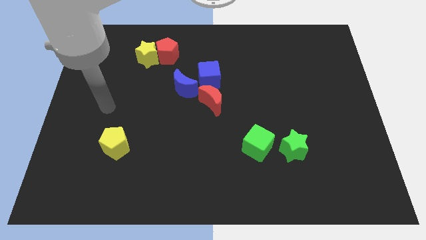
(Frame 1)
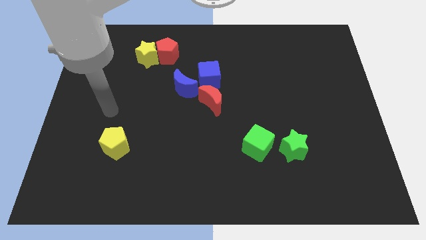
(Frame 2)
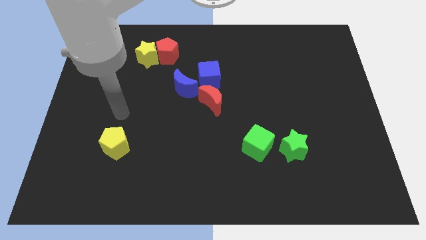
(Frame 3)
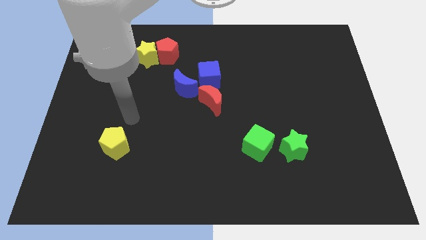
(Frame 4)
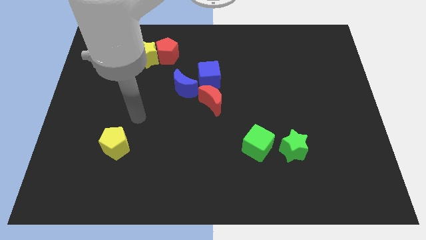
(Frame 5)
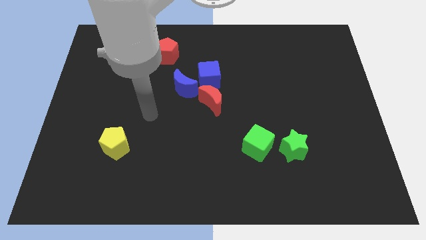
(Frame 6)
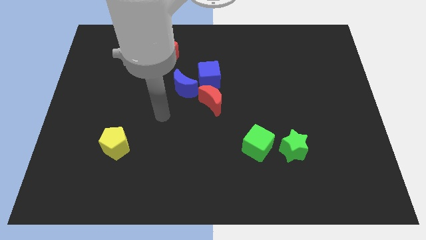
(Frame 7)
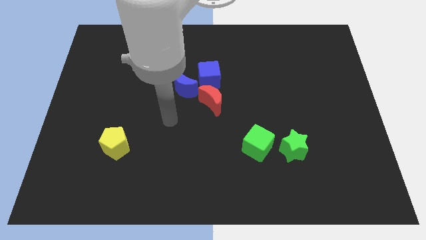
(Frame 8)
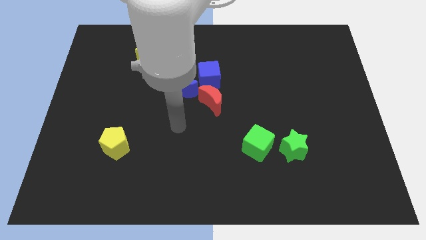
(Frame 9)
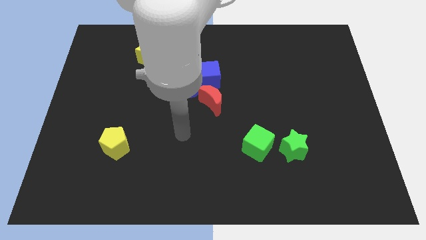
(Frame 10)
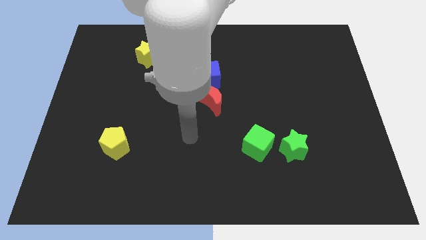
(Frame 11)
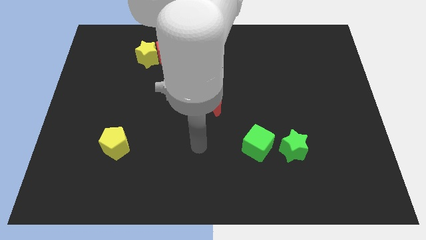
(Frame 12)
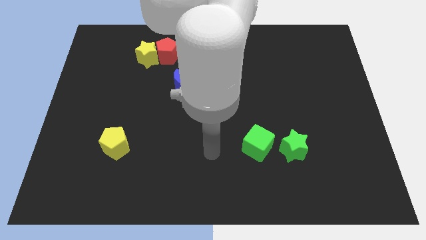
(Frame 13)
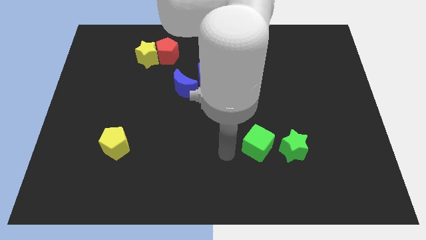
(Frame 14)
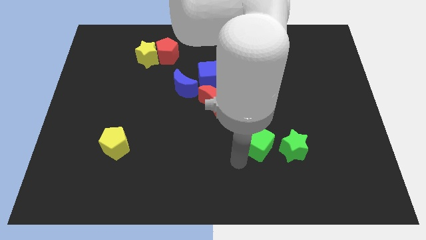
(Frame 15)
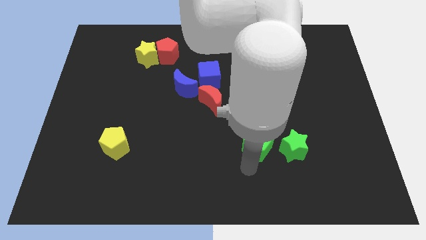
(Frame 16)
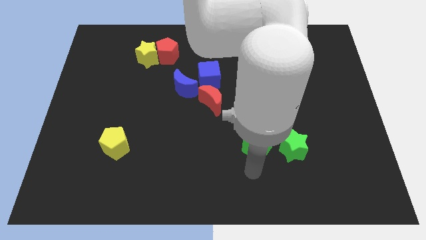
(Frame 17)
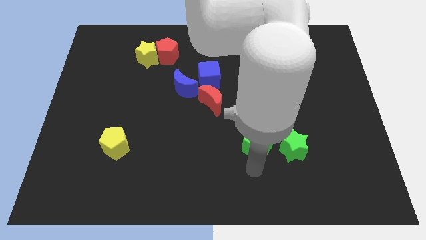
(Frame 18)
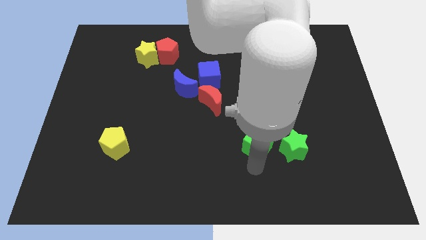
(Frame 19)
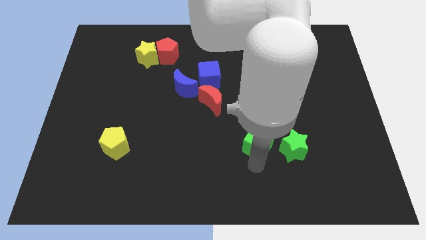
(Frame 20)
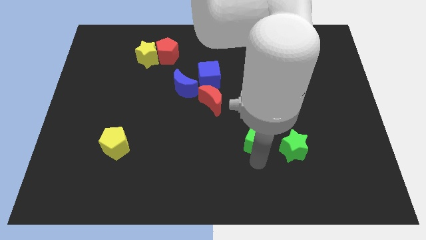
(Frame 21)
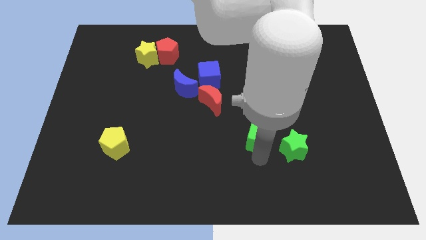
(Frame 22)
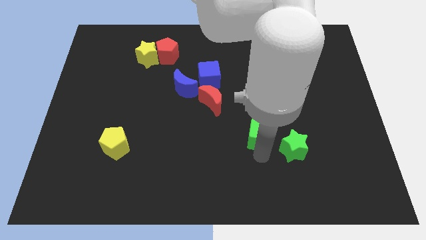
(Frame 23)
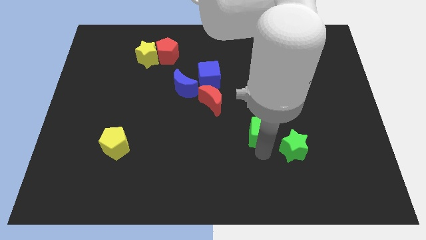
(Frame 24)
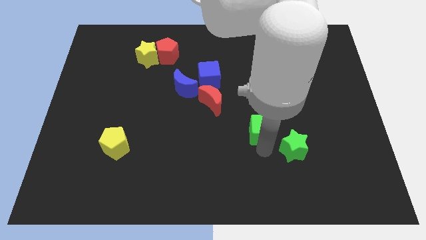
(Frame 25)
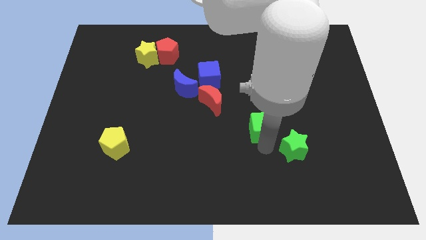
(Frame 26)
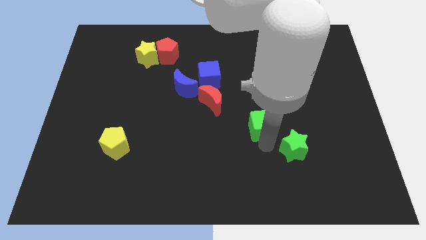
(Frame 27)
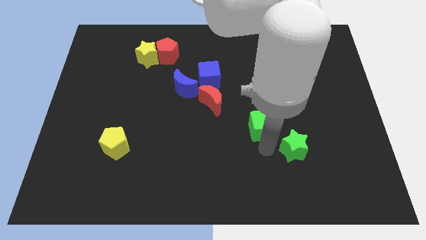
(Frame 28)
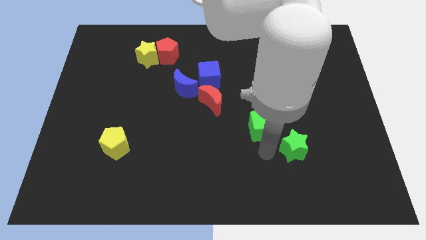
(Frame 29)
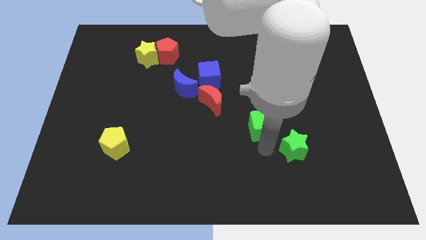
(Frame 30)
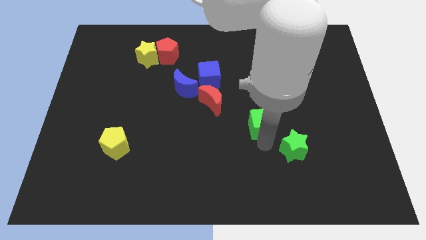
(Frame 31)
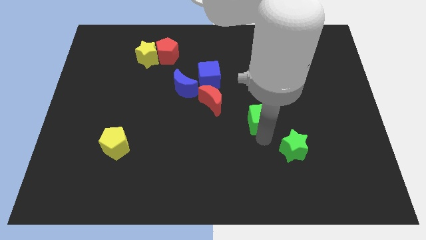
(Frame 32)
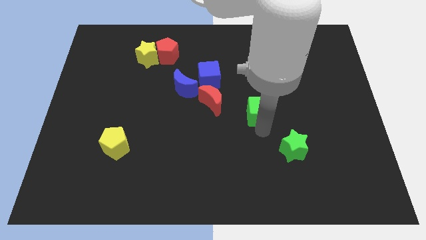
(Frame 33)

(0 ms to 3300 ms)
slide the green cube a bit upwards

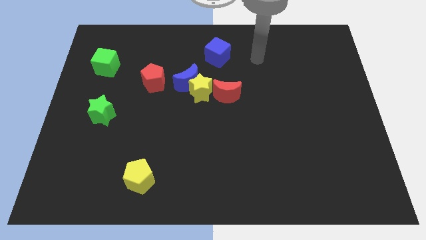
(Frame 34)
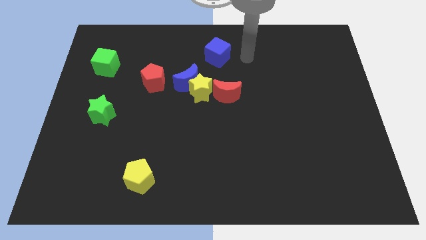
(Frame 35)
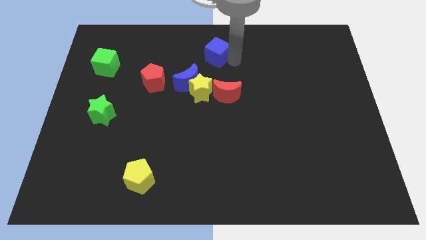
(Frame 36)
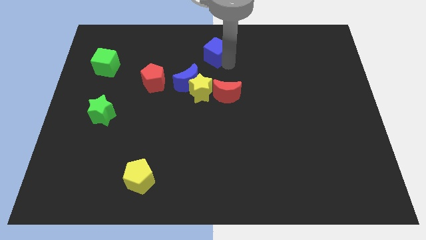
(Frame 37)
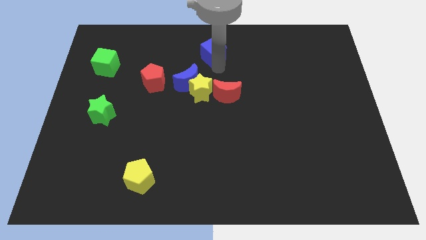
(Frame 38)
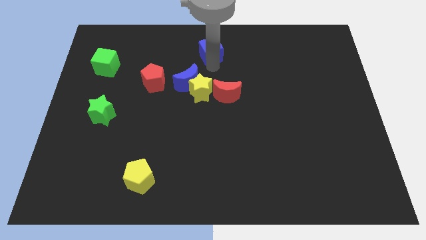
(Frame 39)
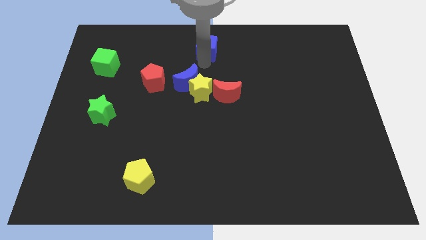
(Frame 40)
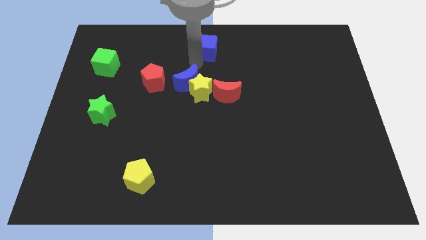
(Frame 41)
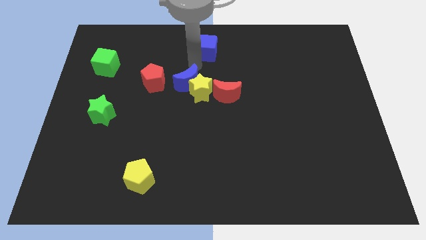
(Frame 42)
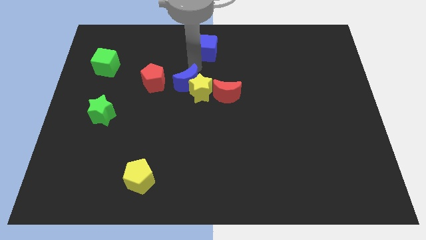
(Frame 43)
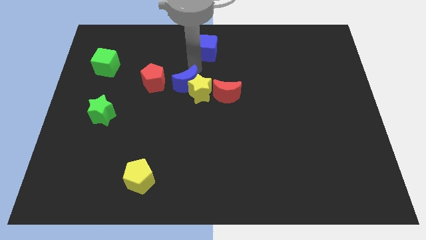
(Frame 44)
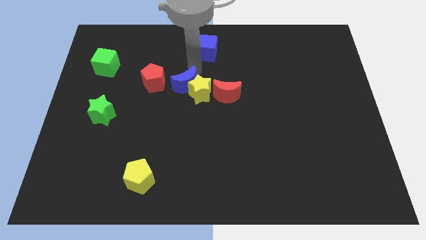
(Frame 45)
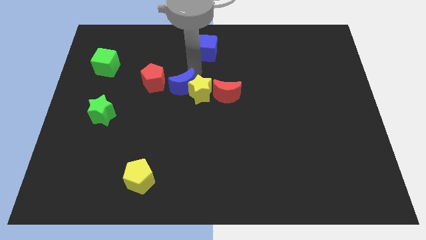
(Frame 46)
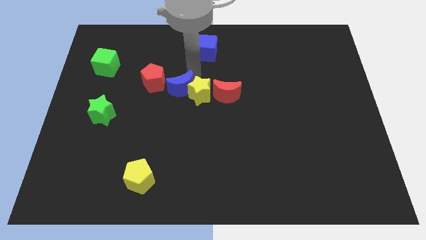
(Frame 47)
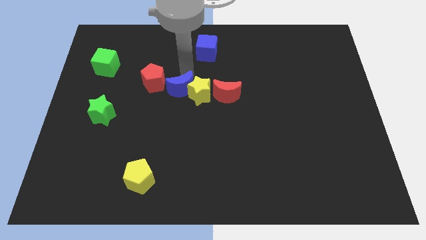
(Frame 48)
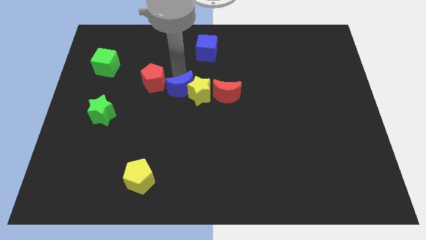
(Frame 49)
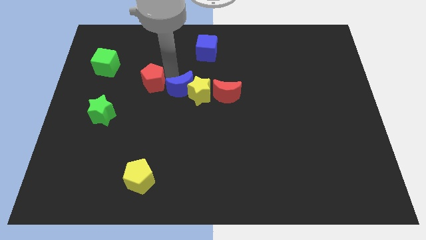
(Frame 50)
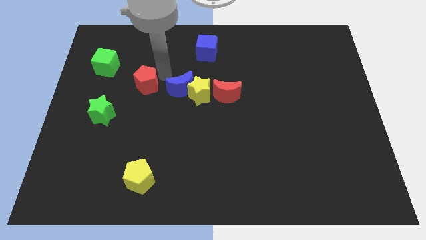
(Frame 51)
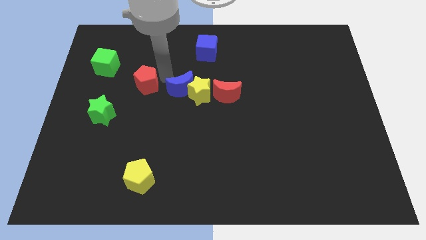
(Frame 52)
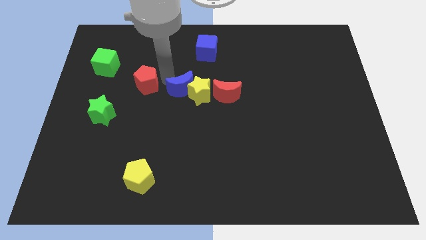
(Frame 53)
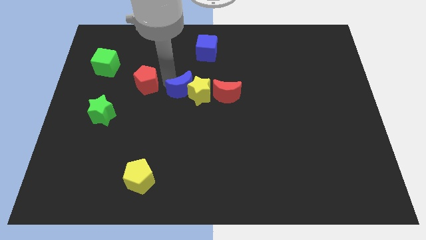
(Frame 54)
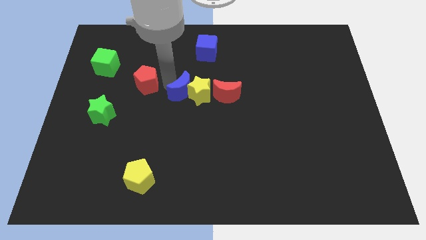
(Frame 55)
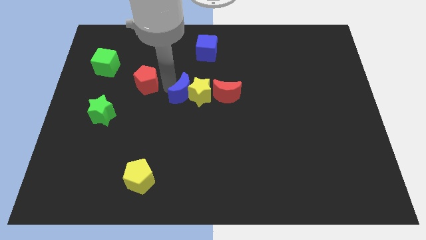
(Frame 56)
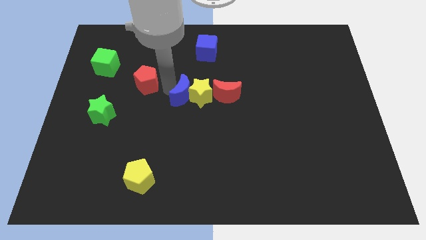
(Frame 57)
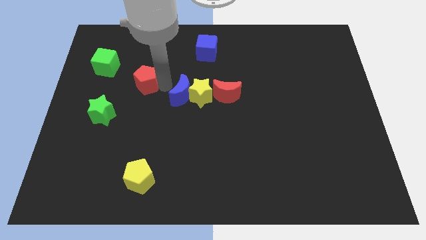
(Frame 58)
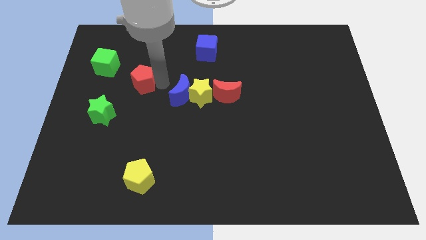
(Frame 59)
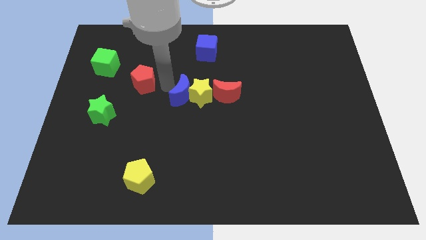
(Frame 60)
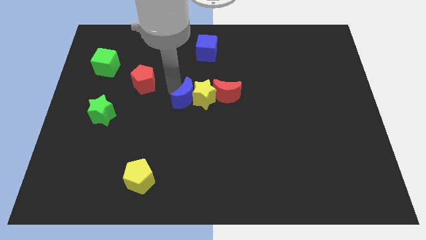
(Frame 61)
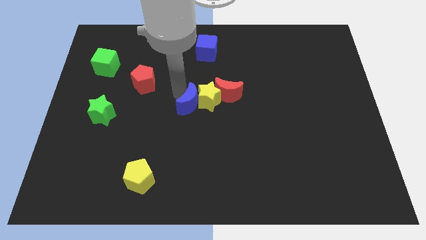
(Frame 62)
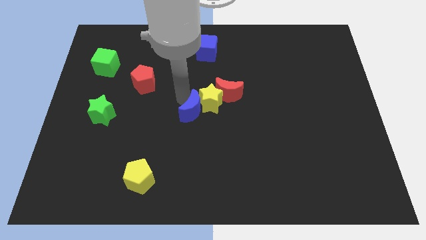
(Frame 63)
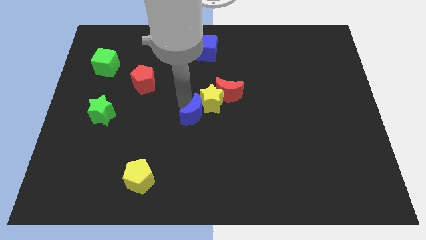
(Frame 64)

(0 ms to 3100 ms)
slightly move the blue moon downwards and to the right diagonally

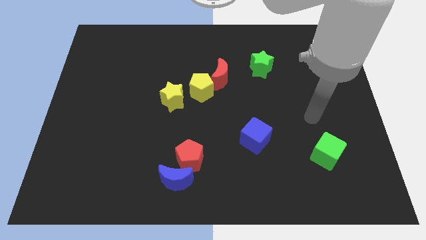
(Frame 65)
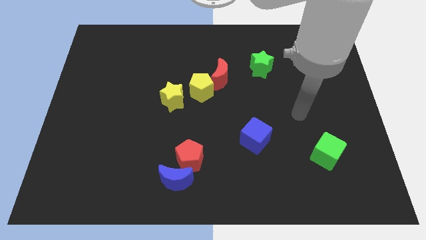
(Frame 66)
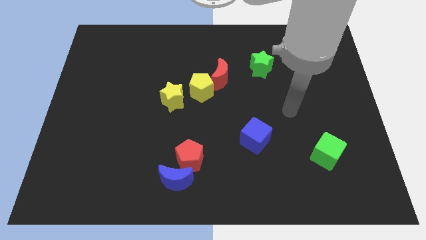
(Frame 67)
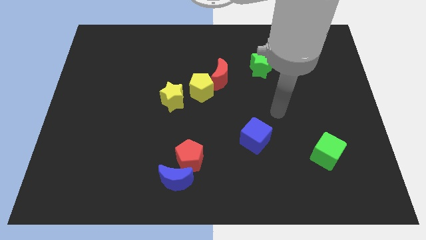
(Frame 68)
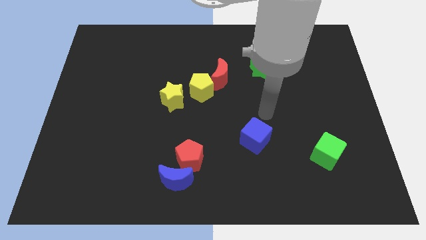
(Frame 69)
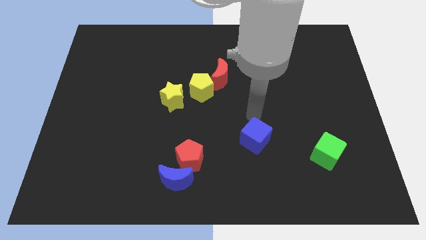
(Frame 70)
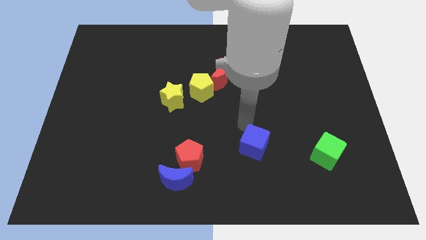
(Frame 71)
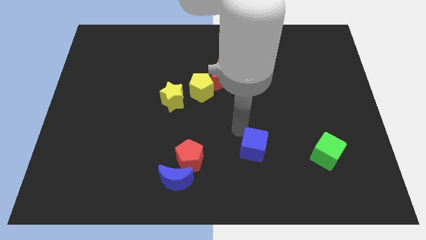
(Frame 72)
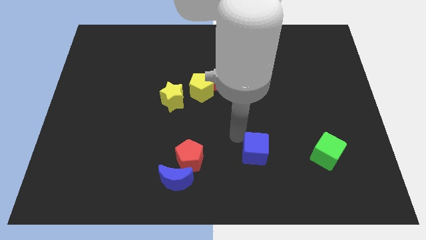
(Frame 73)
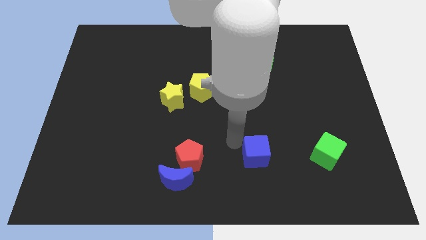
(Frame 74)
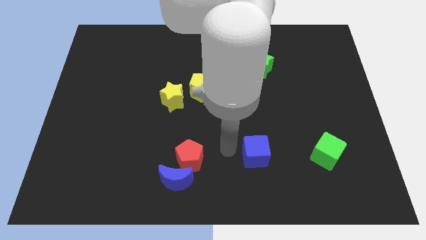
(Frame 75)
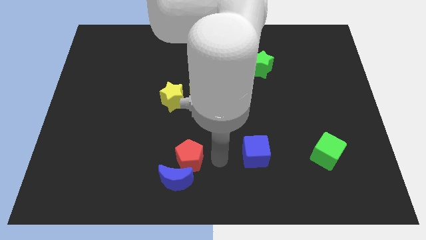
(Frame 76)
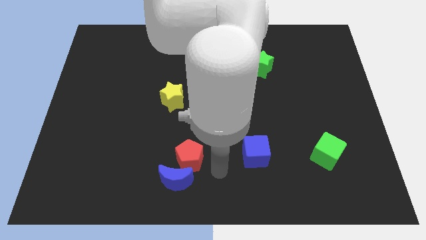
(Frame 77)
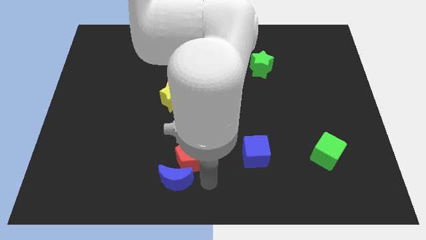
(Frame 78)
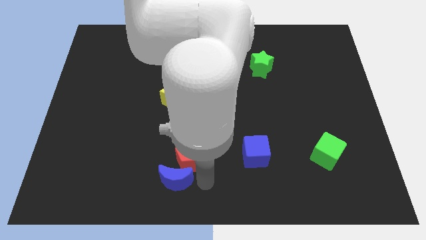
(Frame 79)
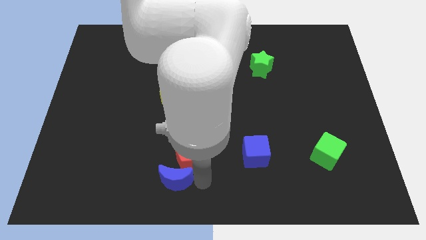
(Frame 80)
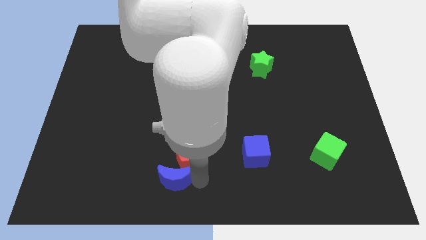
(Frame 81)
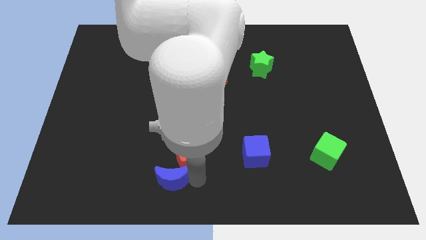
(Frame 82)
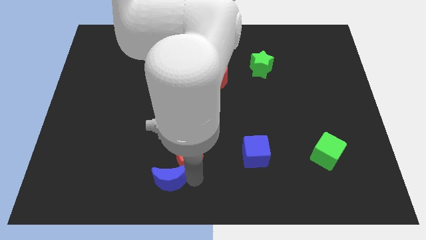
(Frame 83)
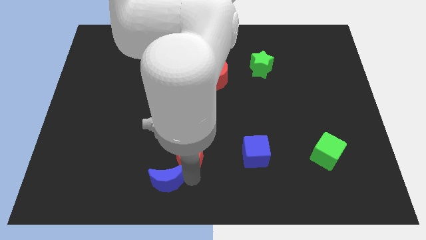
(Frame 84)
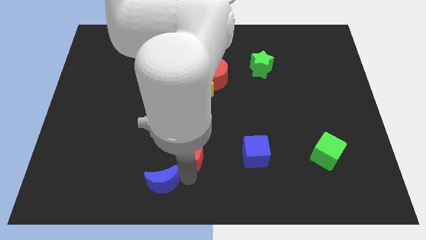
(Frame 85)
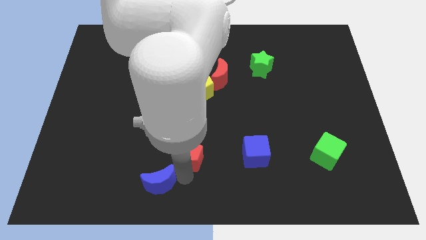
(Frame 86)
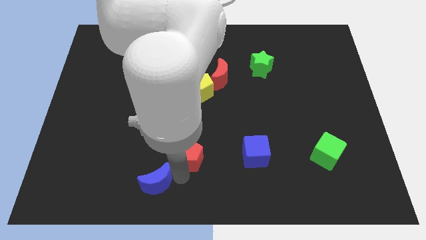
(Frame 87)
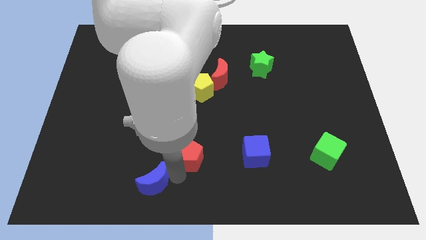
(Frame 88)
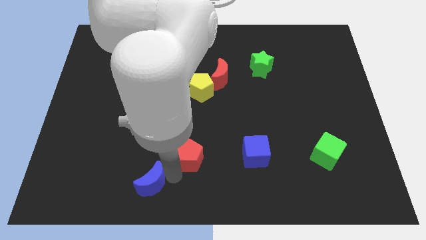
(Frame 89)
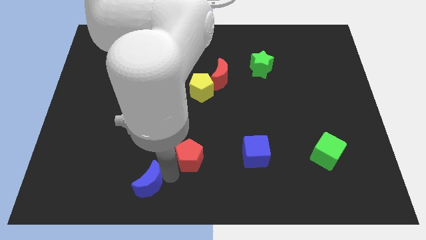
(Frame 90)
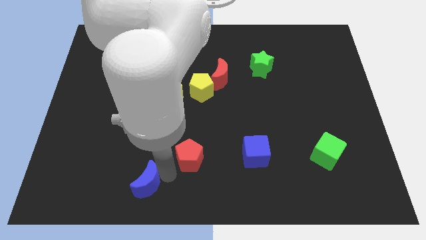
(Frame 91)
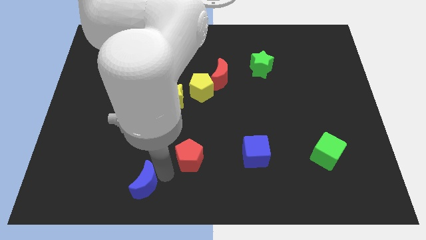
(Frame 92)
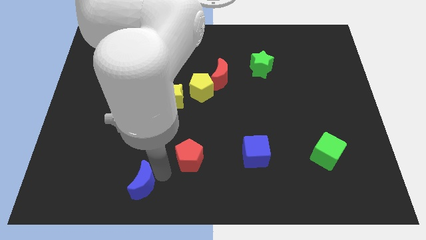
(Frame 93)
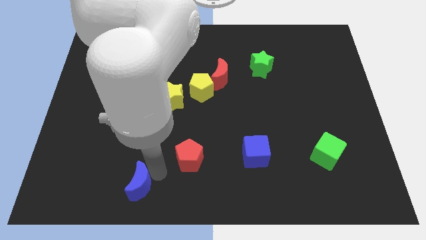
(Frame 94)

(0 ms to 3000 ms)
slide the blue moon to the left a little
